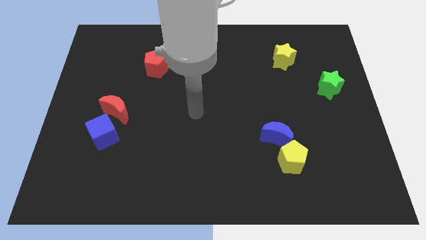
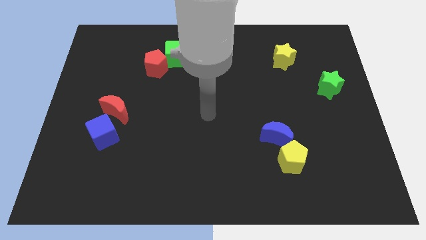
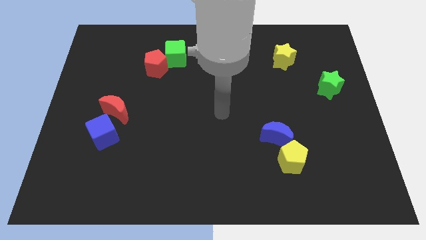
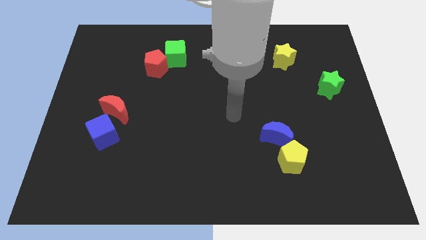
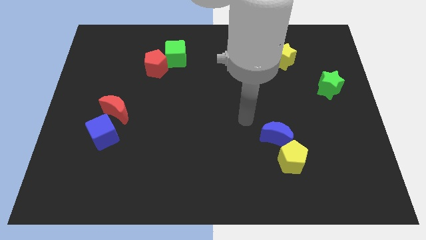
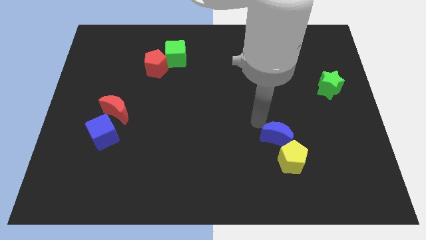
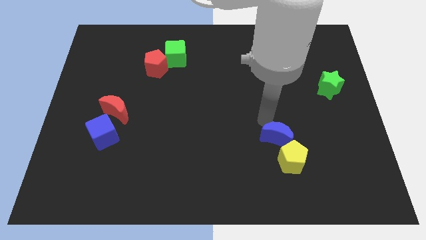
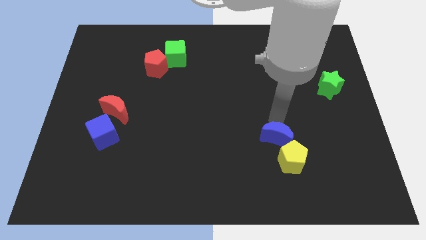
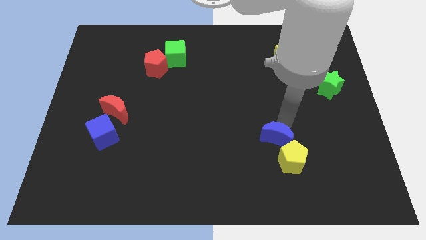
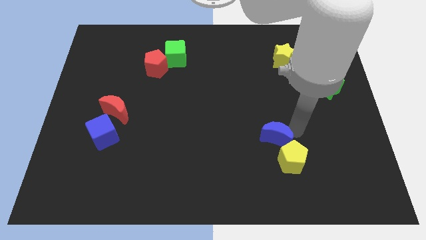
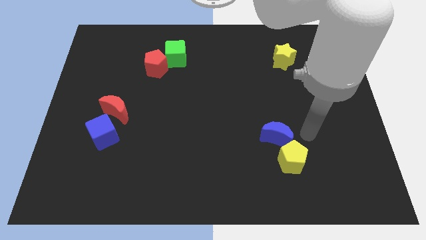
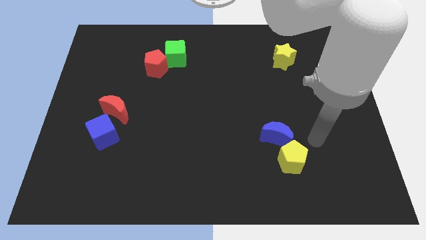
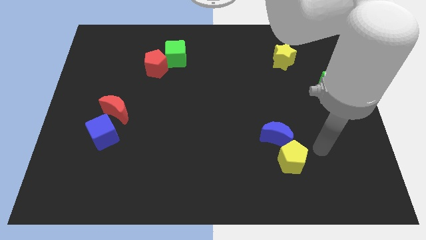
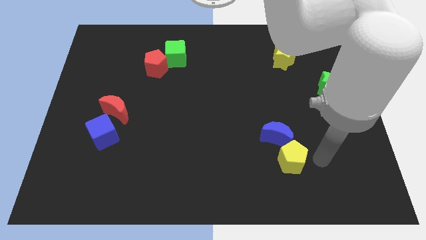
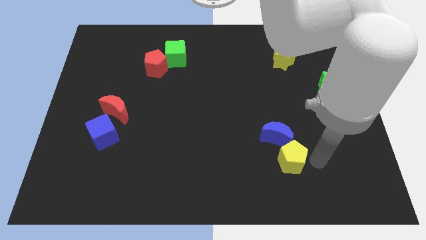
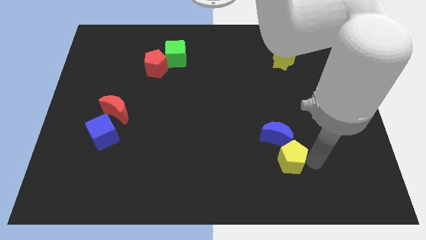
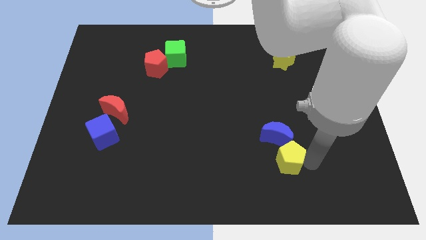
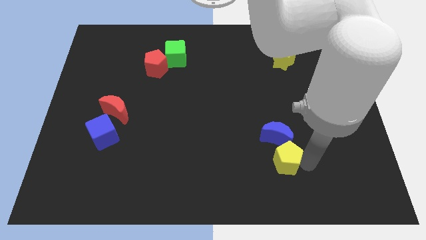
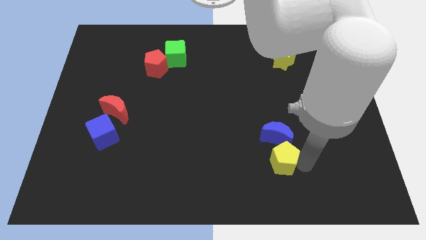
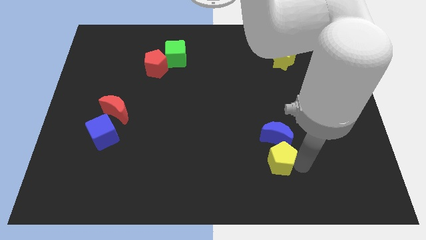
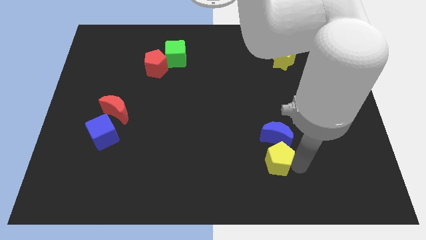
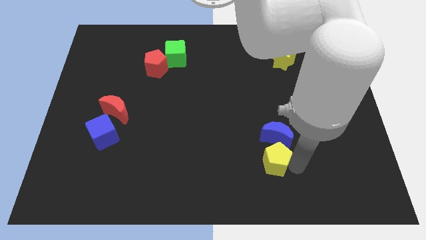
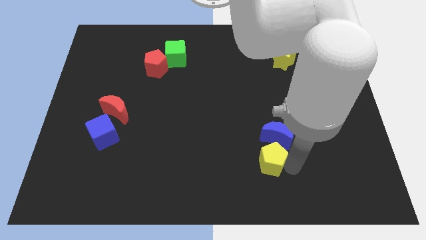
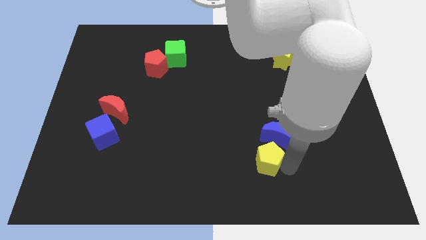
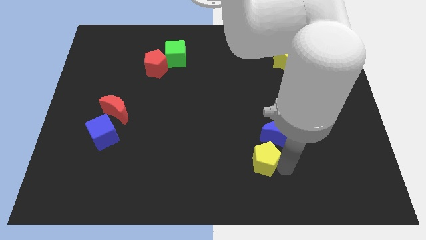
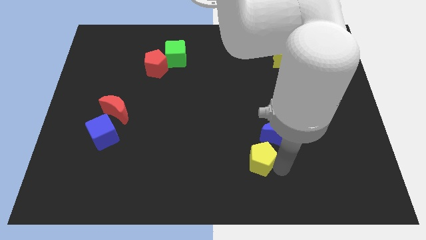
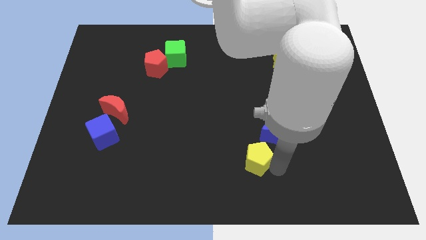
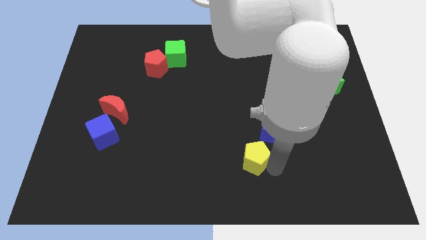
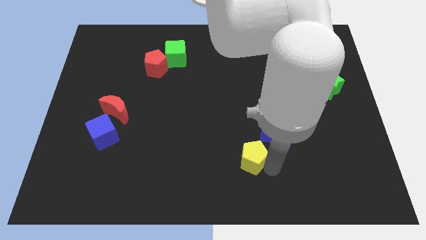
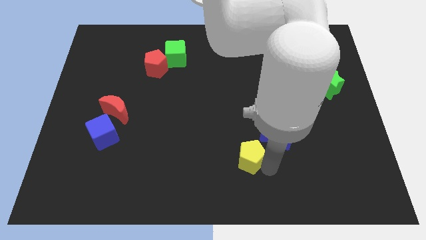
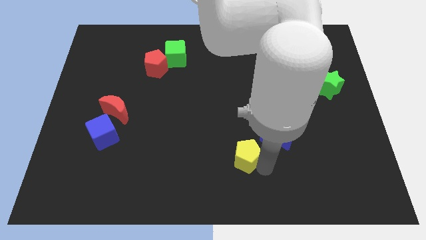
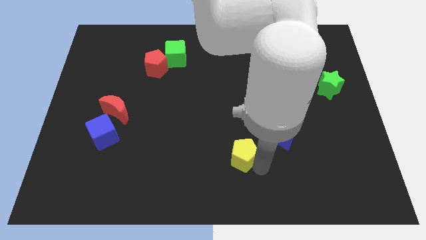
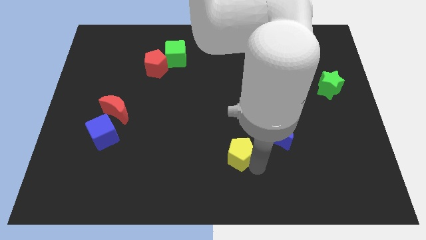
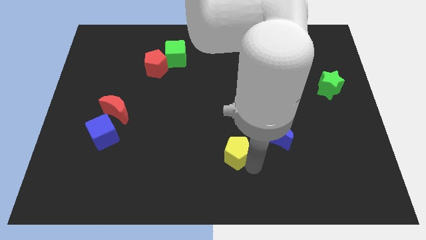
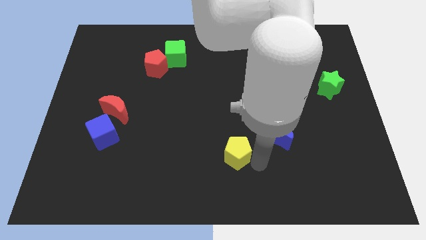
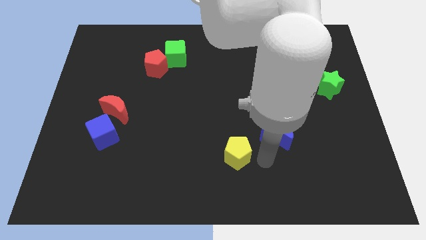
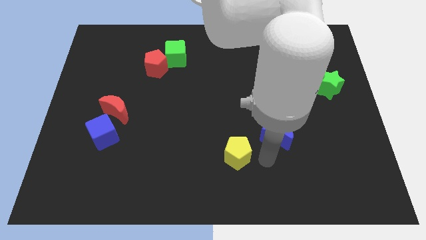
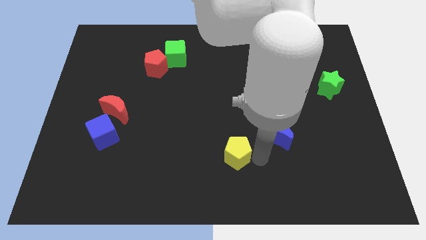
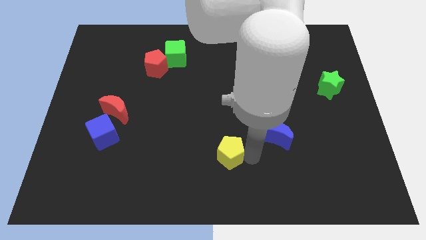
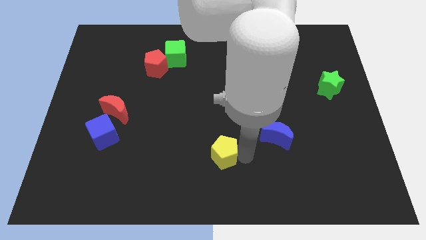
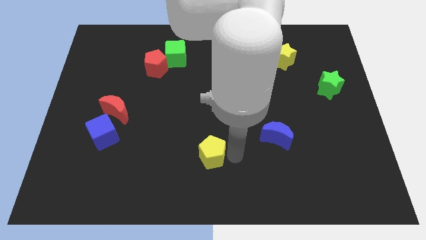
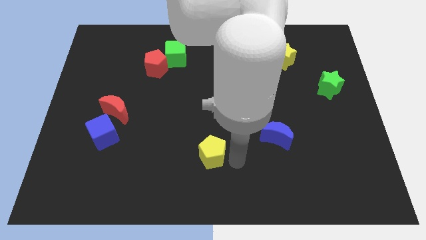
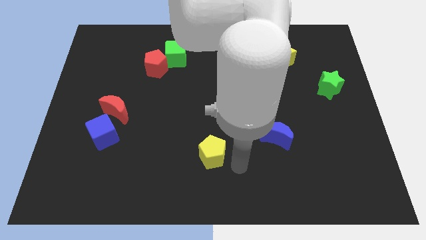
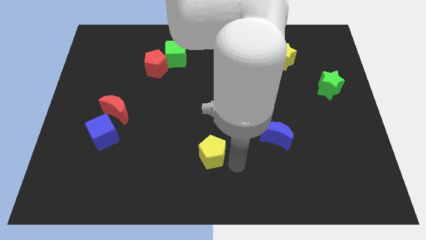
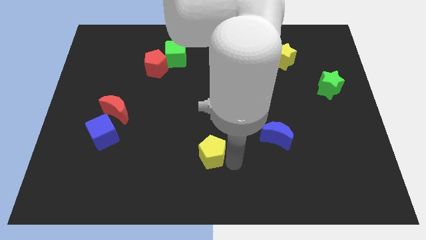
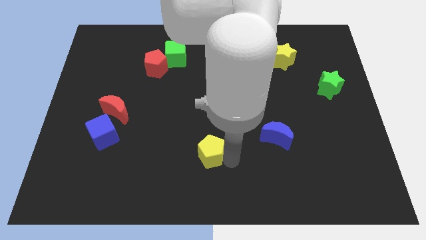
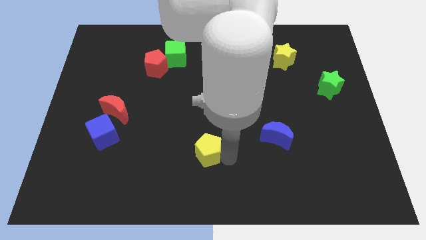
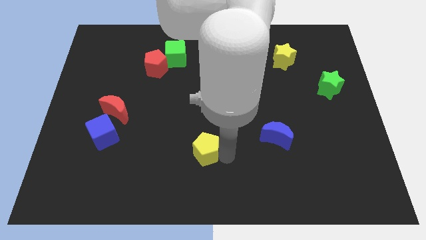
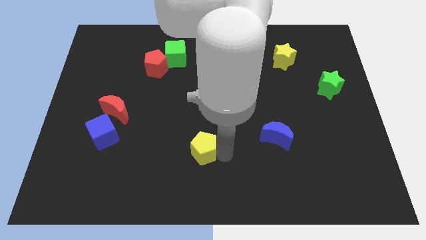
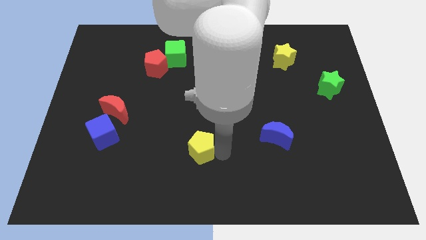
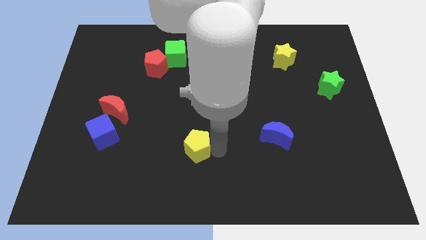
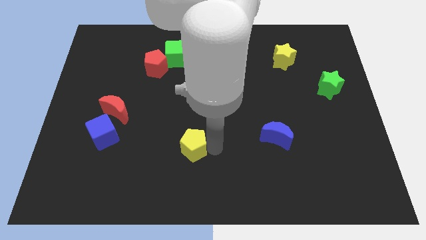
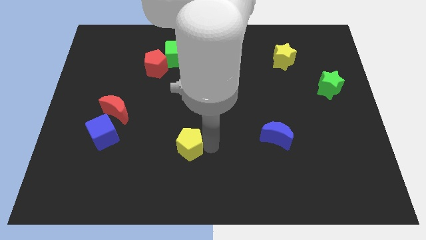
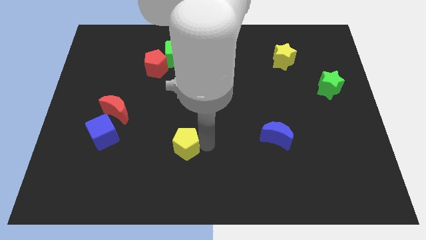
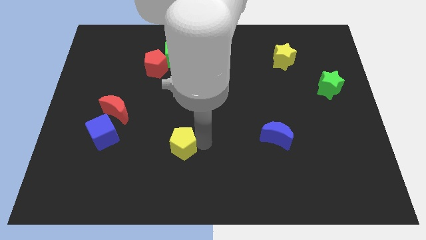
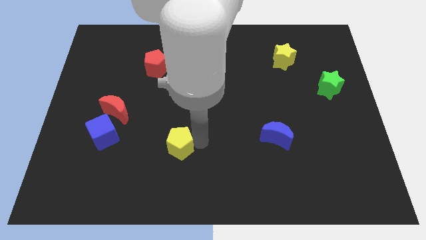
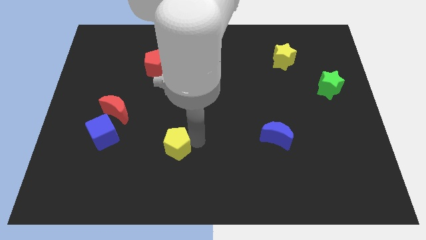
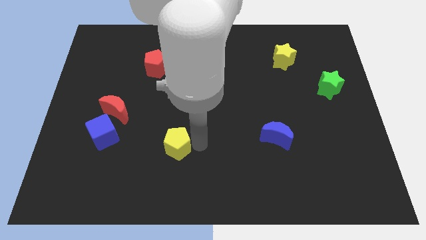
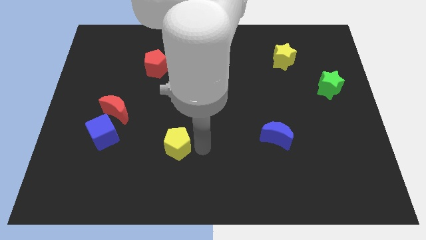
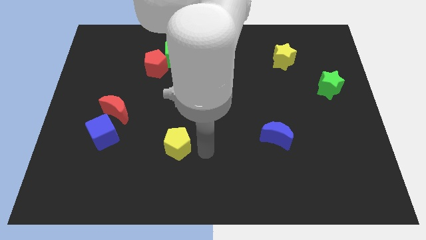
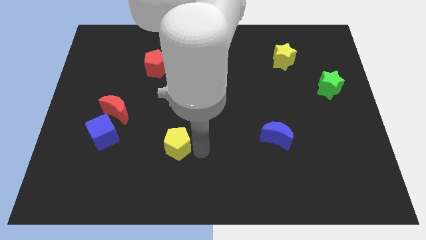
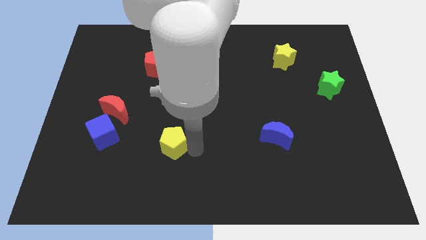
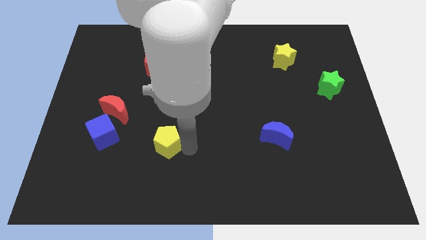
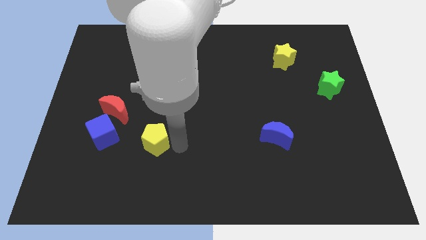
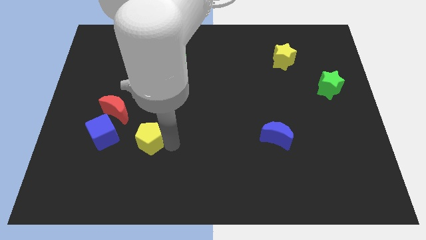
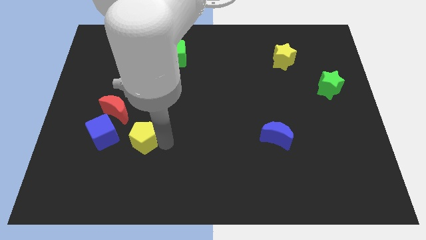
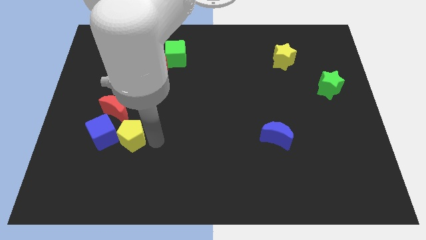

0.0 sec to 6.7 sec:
put the yellow pentagon to the blue cube
